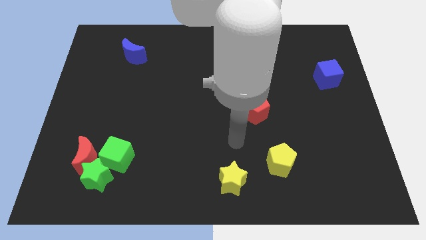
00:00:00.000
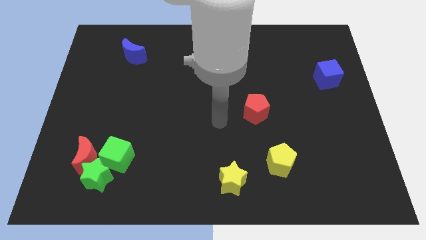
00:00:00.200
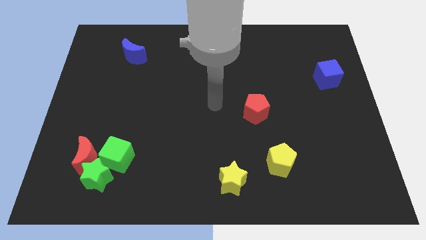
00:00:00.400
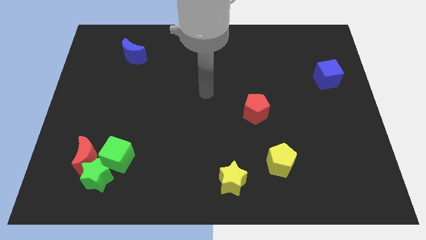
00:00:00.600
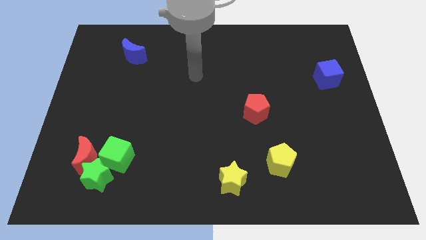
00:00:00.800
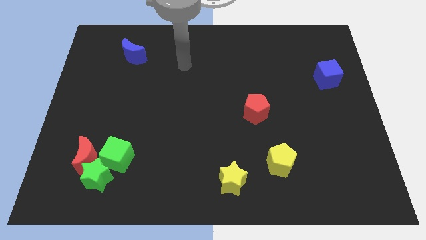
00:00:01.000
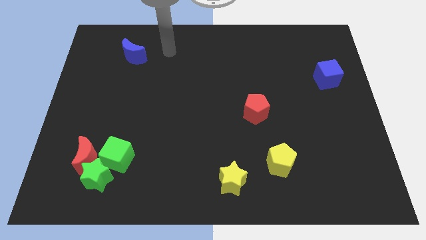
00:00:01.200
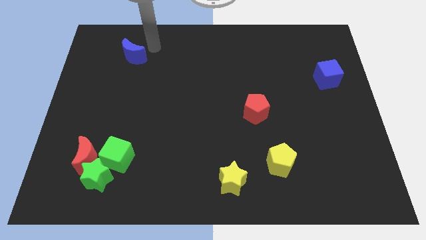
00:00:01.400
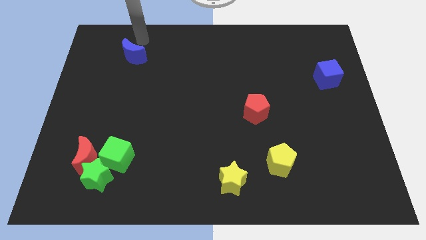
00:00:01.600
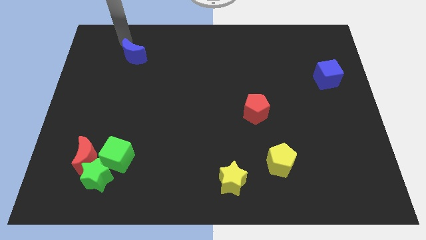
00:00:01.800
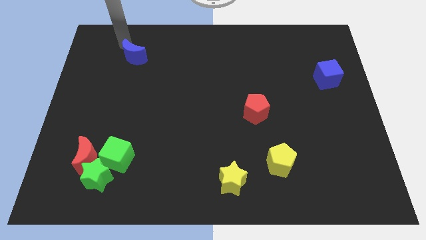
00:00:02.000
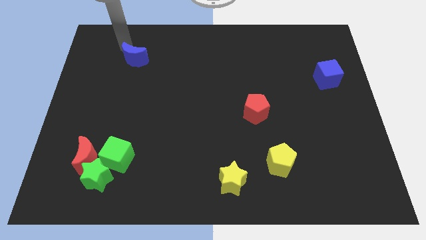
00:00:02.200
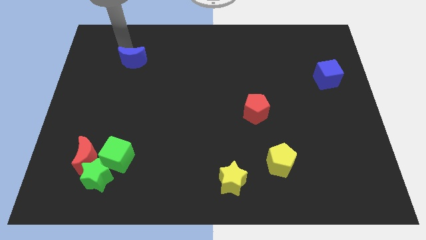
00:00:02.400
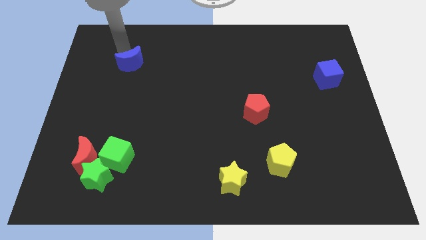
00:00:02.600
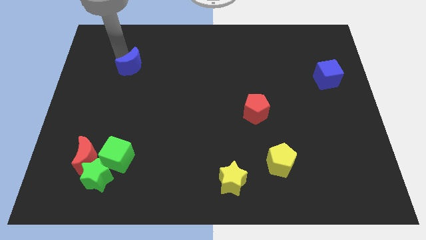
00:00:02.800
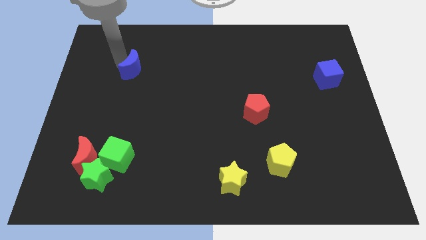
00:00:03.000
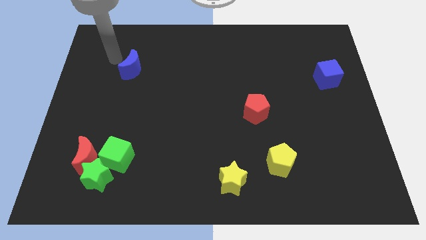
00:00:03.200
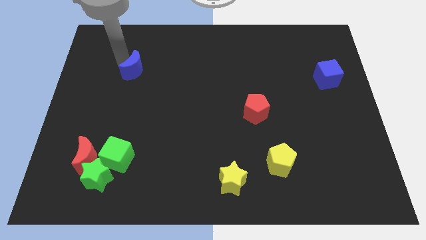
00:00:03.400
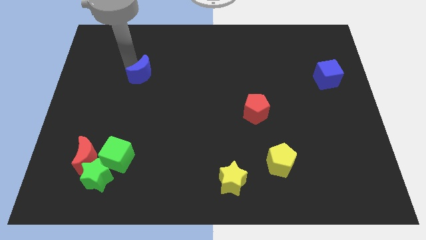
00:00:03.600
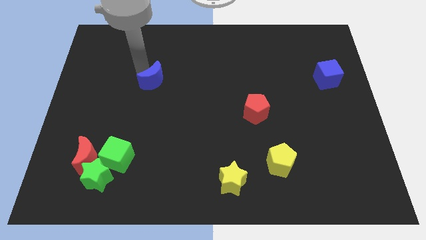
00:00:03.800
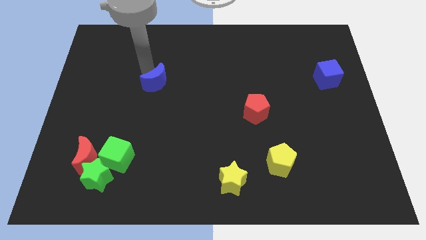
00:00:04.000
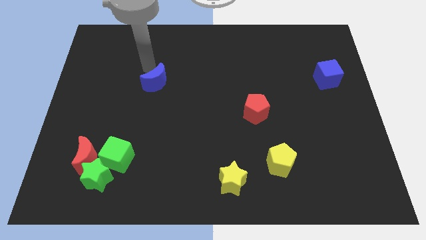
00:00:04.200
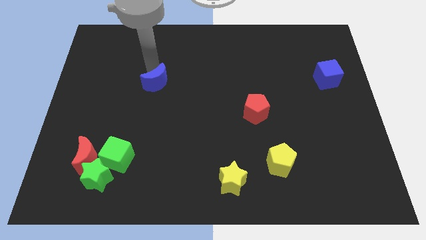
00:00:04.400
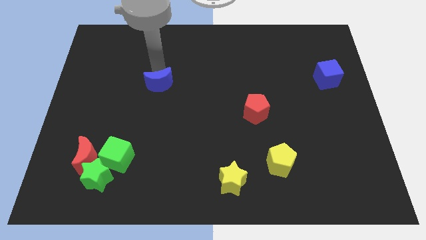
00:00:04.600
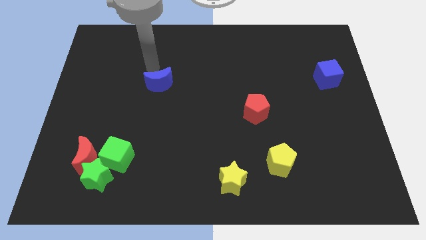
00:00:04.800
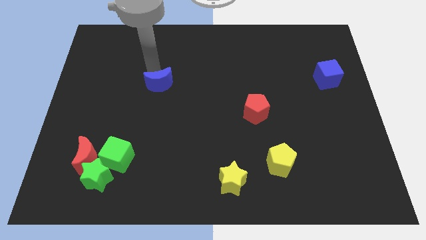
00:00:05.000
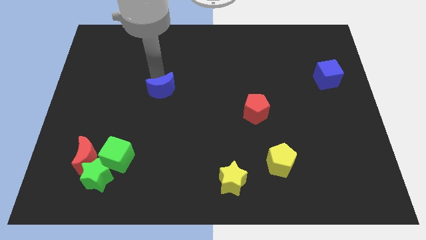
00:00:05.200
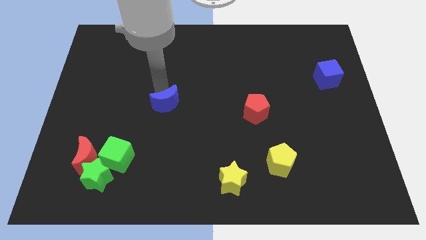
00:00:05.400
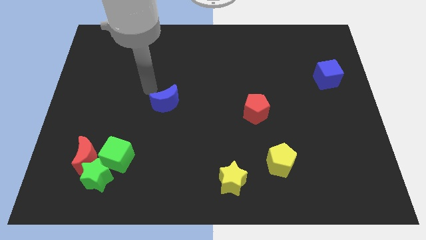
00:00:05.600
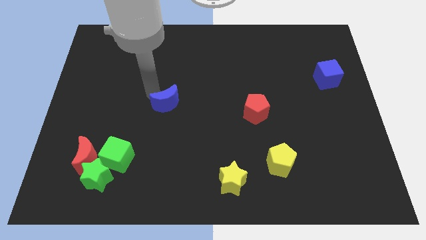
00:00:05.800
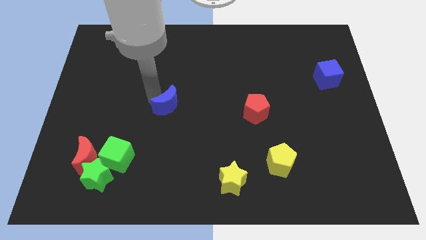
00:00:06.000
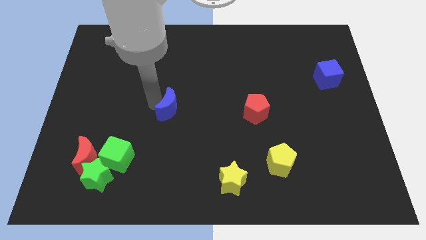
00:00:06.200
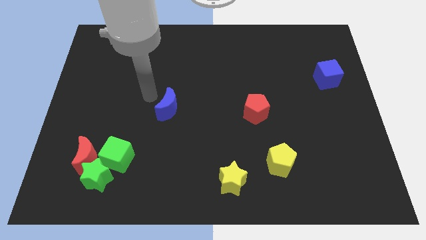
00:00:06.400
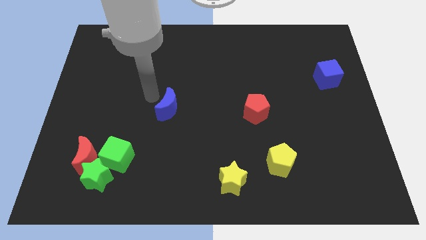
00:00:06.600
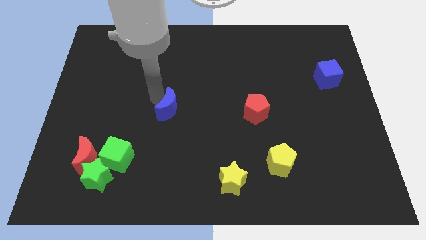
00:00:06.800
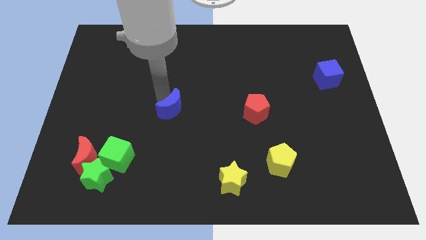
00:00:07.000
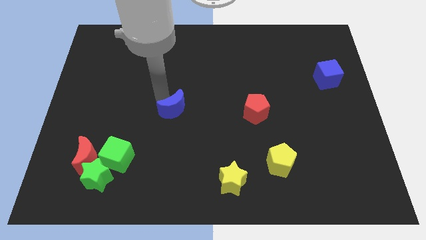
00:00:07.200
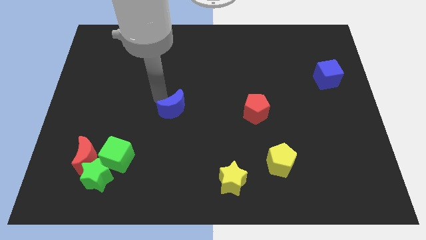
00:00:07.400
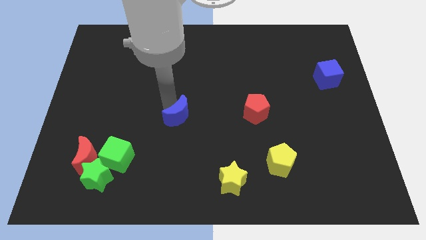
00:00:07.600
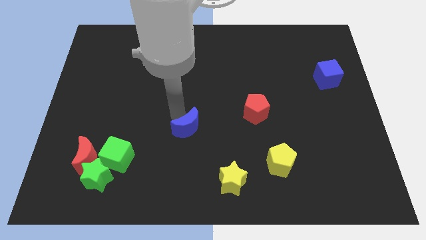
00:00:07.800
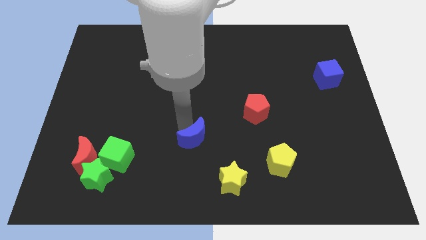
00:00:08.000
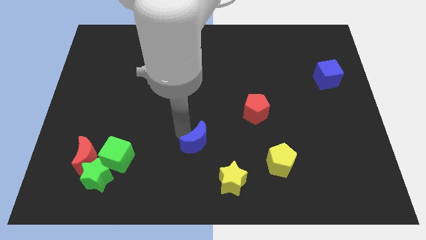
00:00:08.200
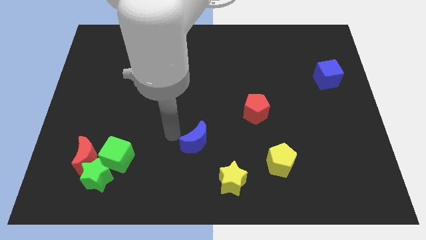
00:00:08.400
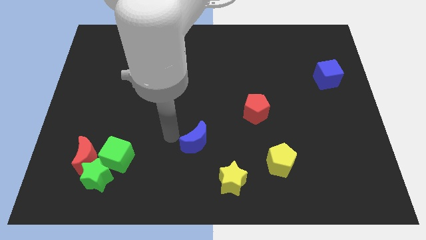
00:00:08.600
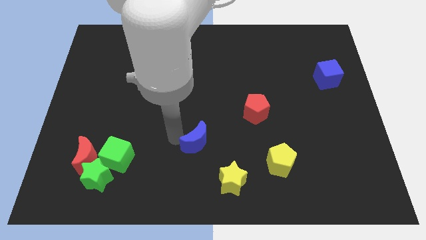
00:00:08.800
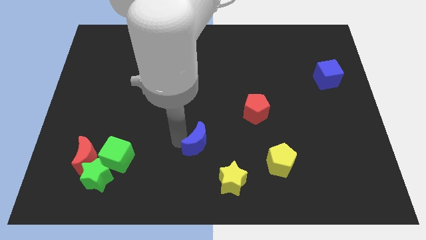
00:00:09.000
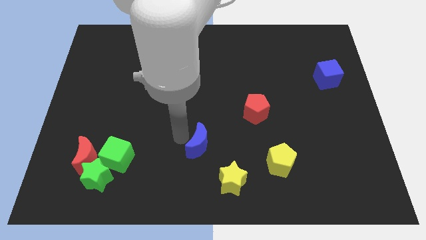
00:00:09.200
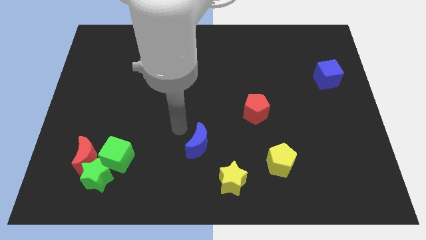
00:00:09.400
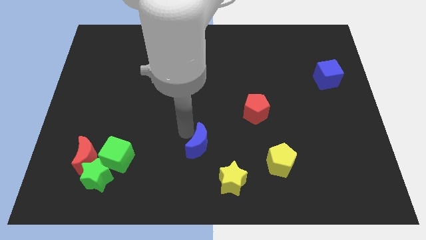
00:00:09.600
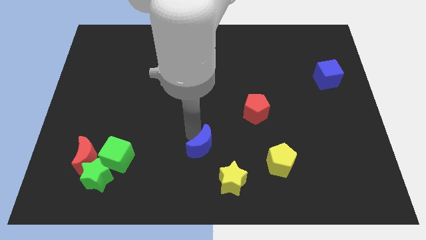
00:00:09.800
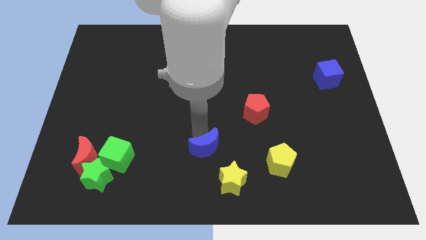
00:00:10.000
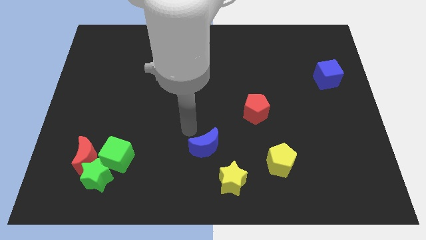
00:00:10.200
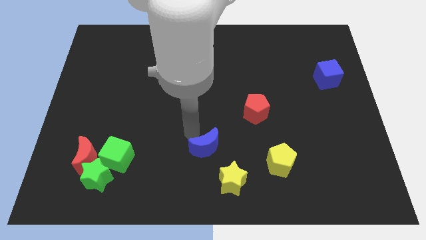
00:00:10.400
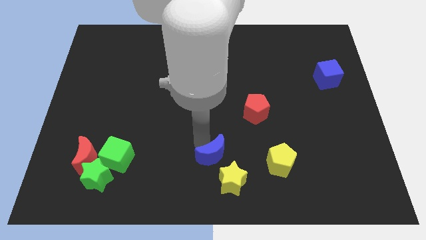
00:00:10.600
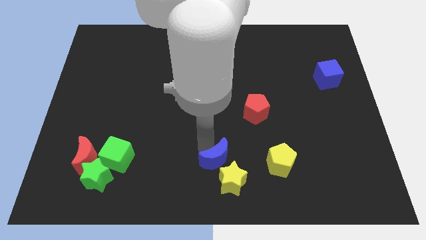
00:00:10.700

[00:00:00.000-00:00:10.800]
slide the blue moon next to the yellow star

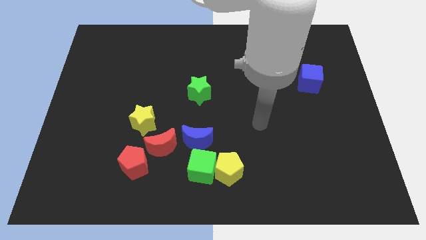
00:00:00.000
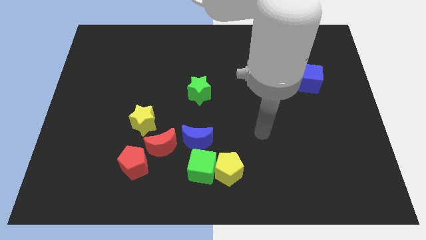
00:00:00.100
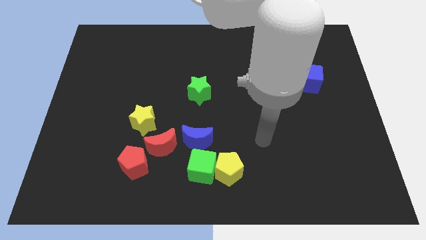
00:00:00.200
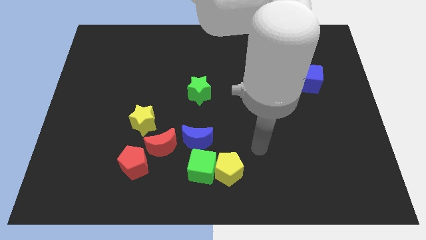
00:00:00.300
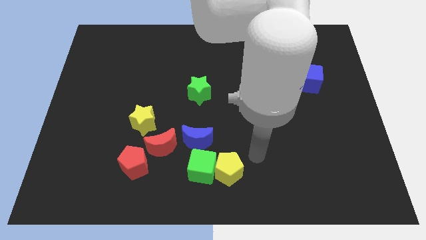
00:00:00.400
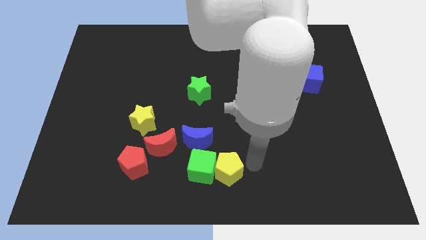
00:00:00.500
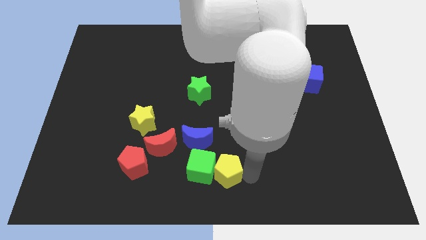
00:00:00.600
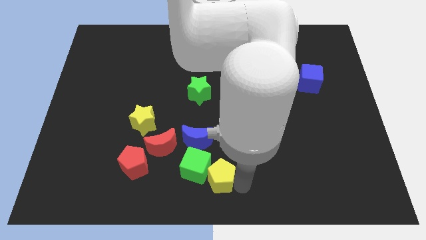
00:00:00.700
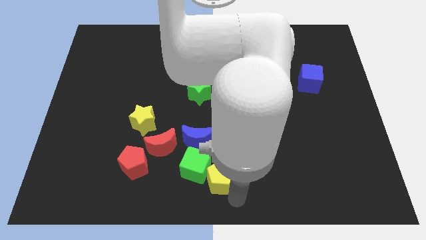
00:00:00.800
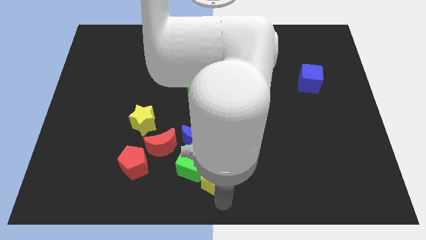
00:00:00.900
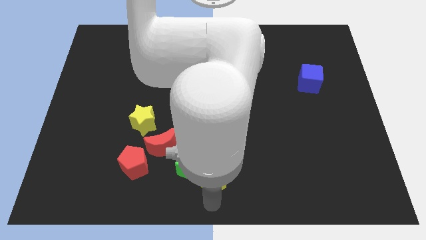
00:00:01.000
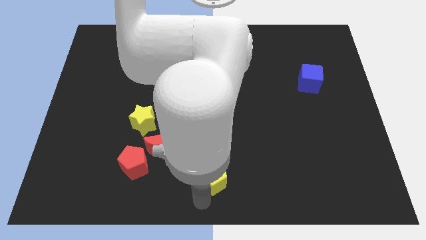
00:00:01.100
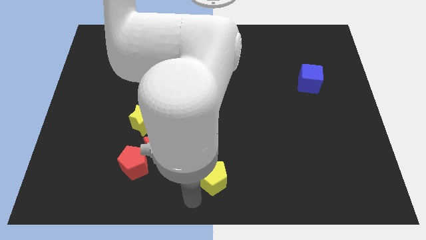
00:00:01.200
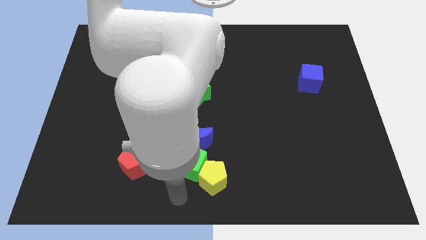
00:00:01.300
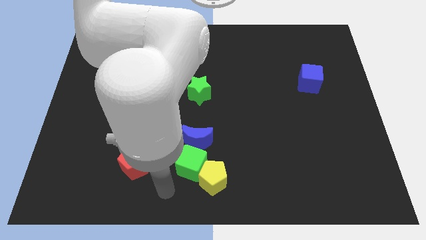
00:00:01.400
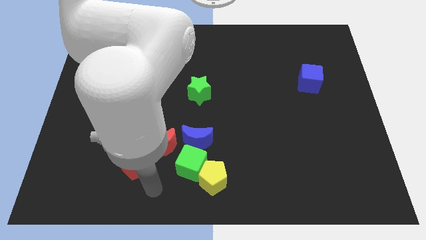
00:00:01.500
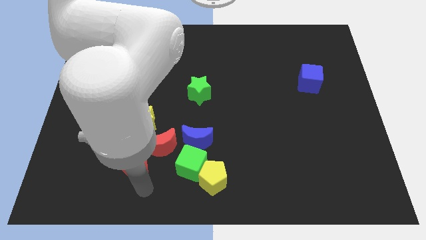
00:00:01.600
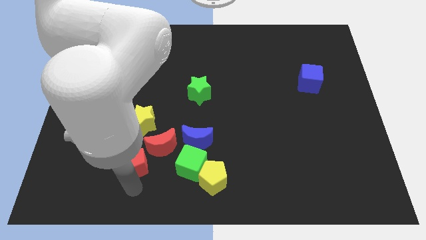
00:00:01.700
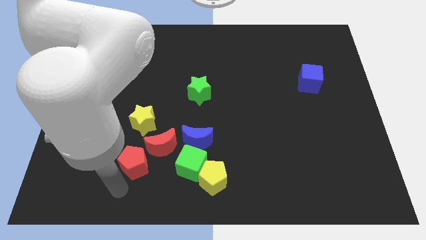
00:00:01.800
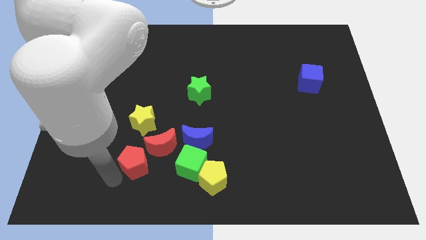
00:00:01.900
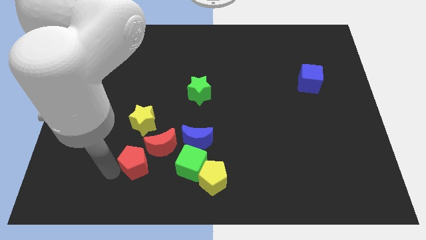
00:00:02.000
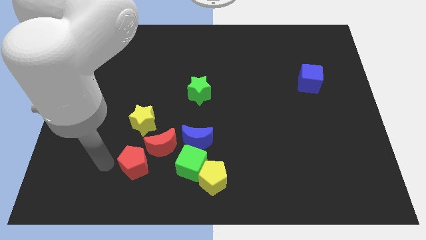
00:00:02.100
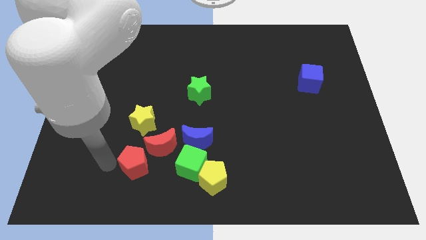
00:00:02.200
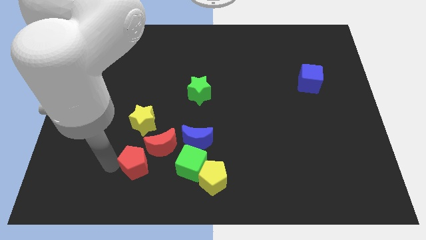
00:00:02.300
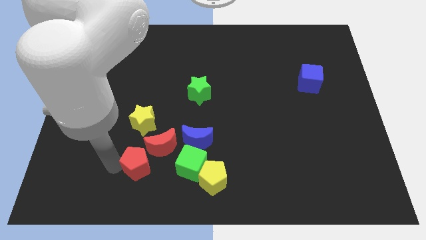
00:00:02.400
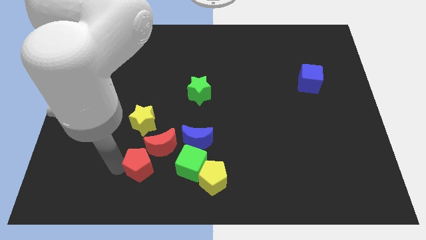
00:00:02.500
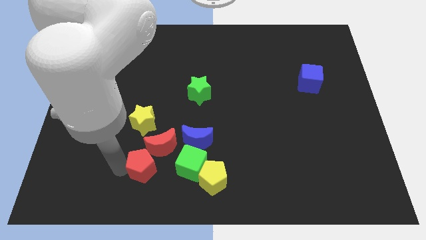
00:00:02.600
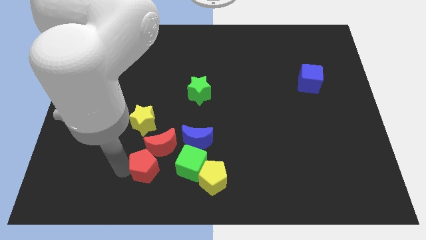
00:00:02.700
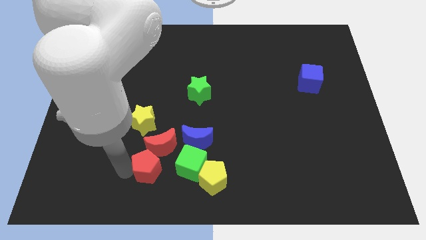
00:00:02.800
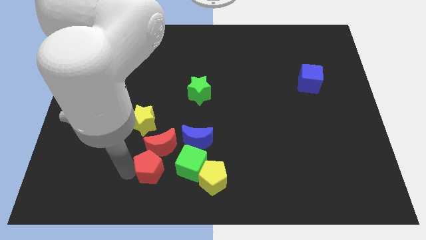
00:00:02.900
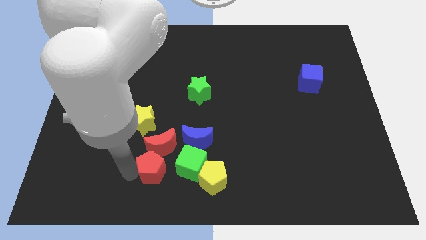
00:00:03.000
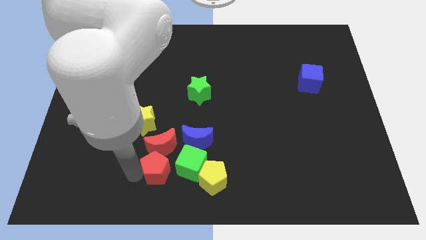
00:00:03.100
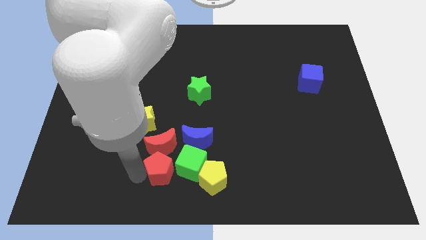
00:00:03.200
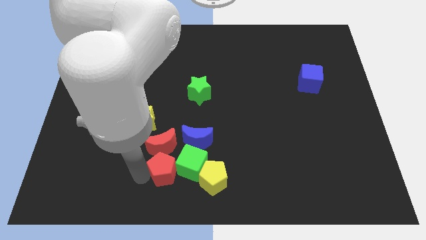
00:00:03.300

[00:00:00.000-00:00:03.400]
move the red pentagon to the green cube
